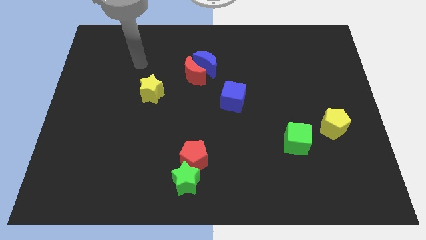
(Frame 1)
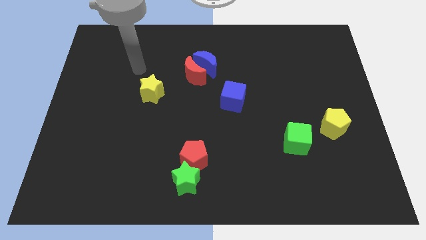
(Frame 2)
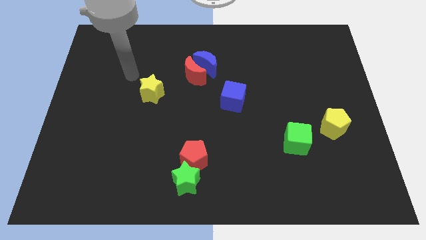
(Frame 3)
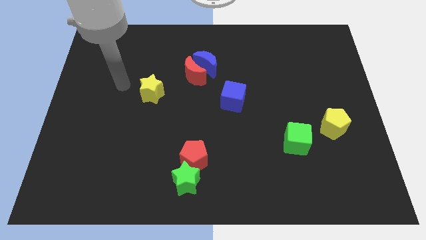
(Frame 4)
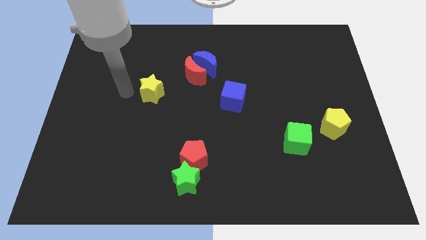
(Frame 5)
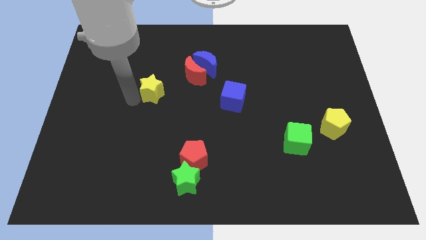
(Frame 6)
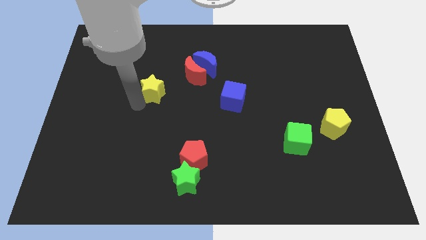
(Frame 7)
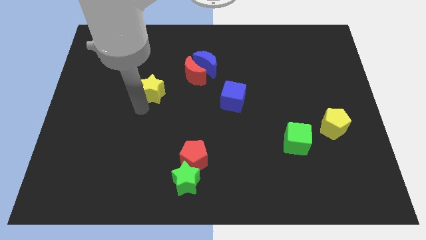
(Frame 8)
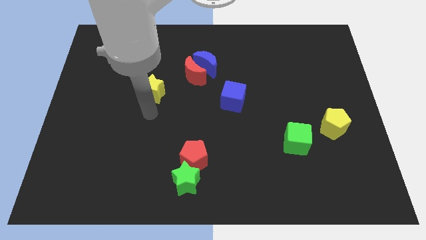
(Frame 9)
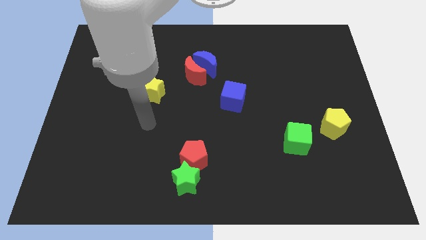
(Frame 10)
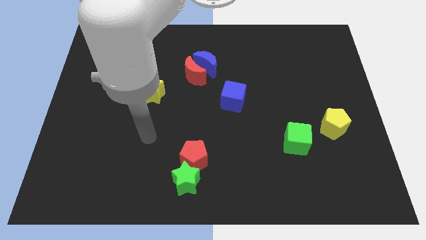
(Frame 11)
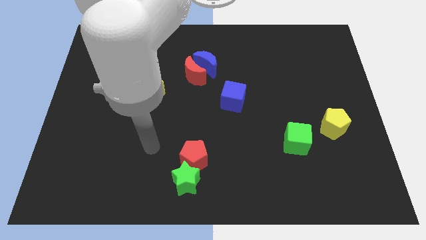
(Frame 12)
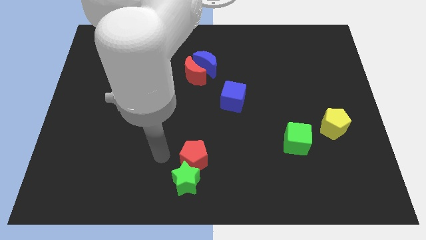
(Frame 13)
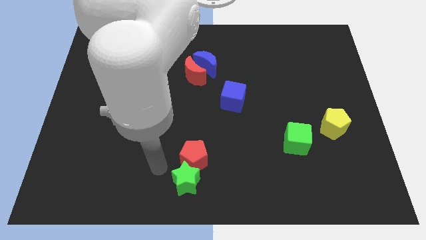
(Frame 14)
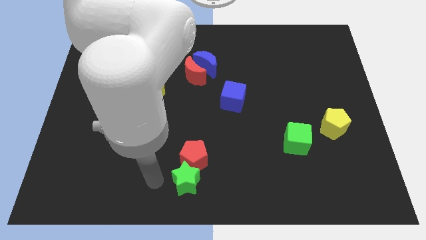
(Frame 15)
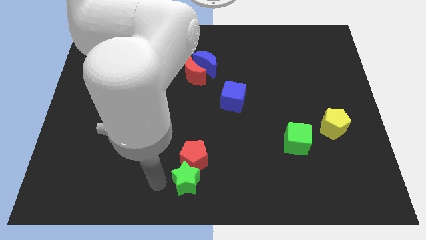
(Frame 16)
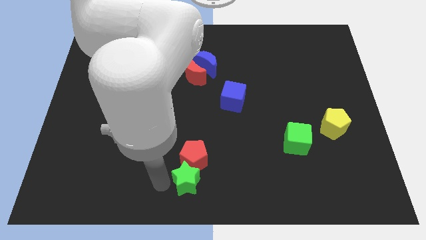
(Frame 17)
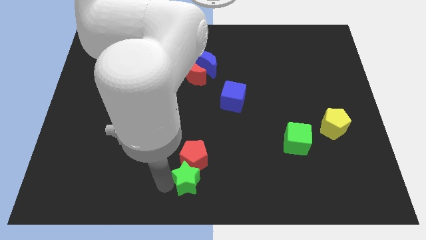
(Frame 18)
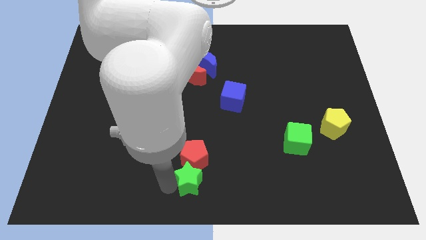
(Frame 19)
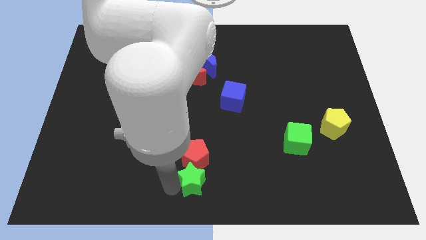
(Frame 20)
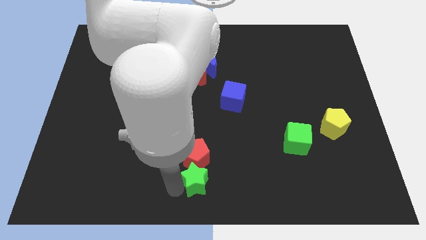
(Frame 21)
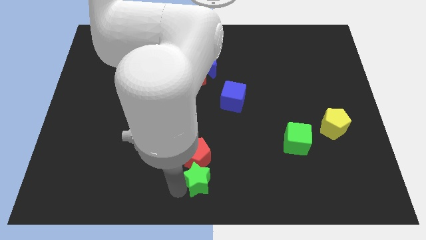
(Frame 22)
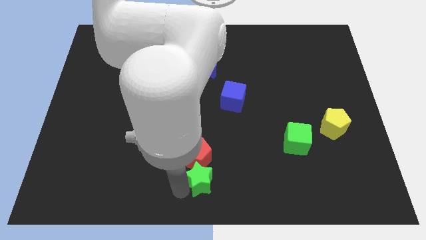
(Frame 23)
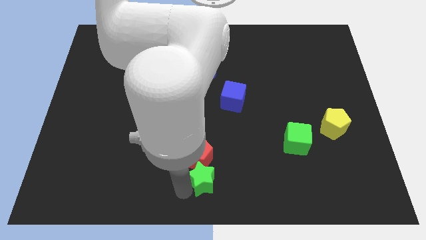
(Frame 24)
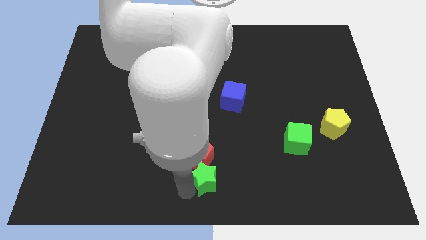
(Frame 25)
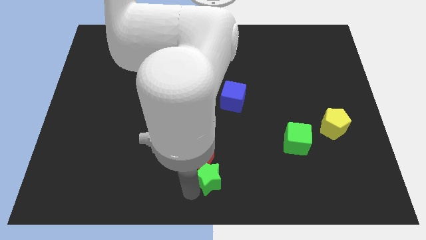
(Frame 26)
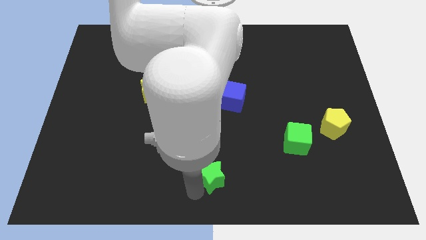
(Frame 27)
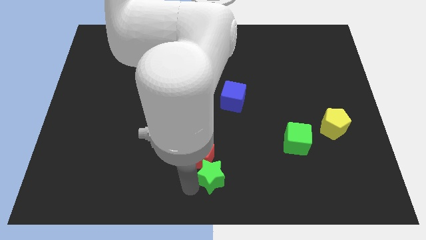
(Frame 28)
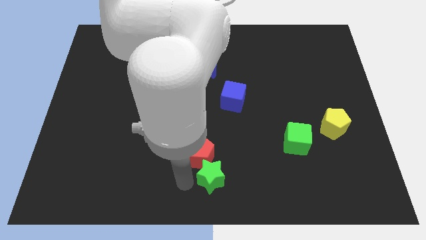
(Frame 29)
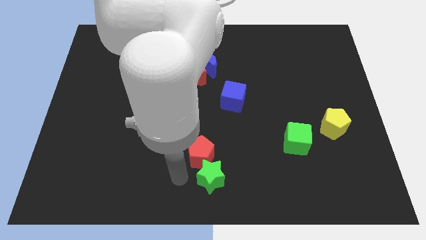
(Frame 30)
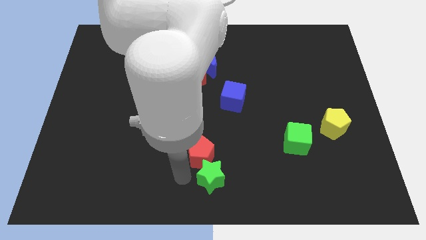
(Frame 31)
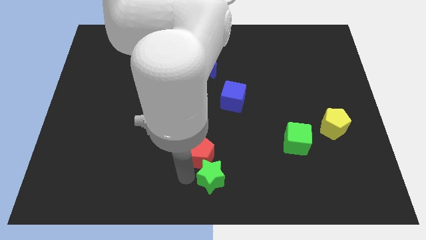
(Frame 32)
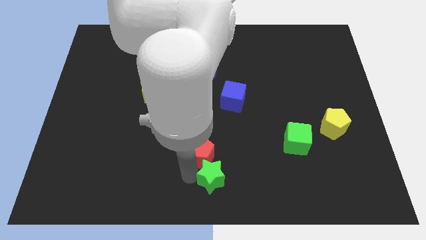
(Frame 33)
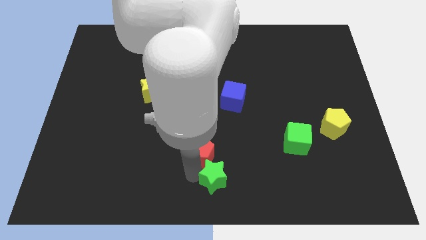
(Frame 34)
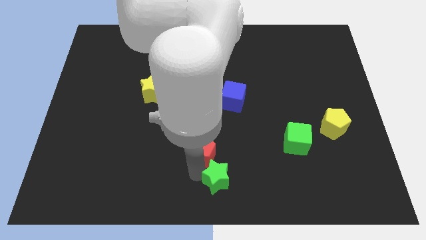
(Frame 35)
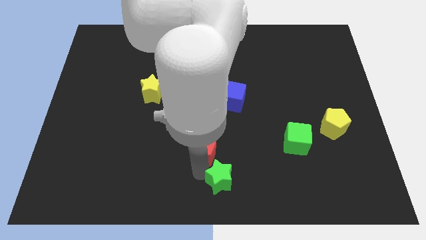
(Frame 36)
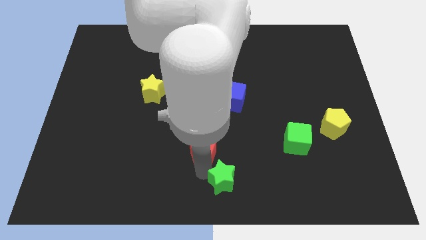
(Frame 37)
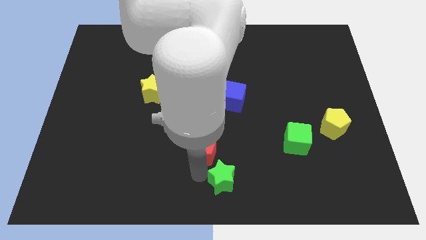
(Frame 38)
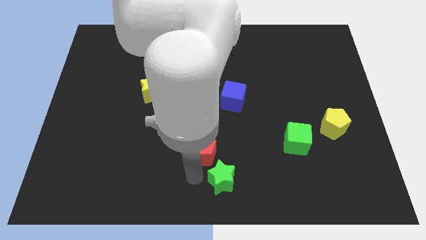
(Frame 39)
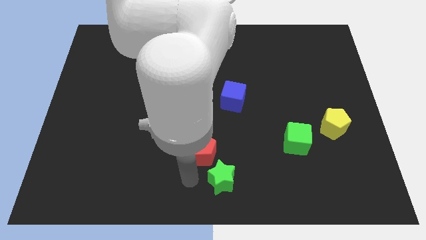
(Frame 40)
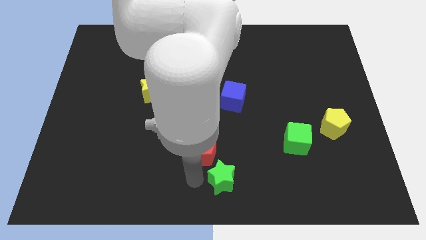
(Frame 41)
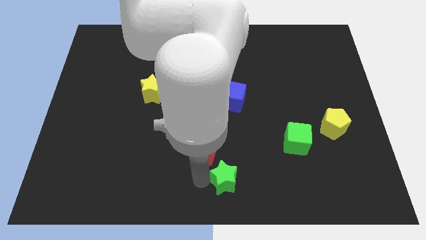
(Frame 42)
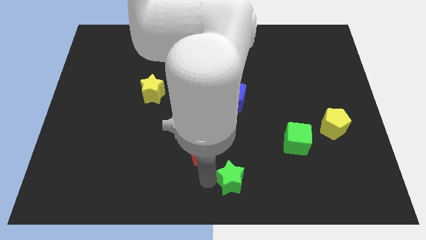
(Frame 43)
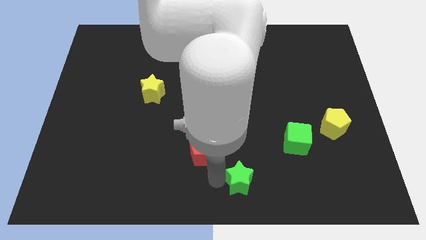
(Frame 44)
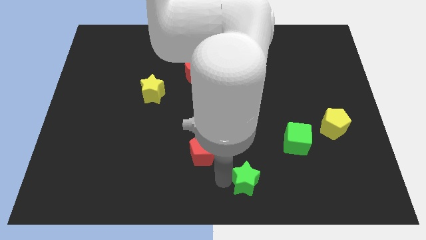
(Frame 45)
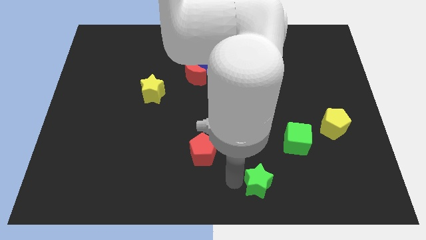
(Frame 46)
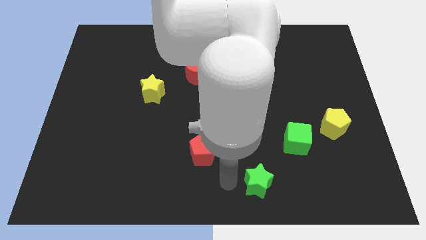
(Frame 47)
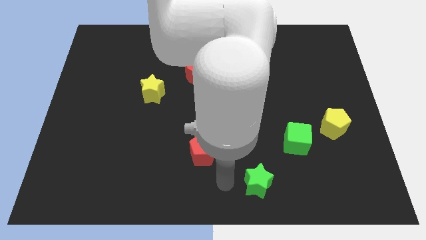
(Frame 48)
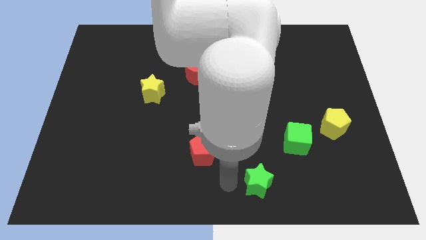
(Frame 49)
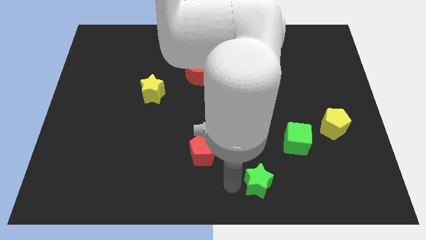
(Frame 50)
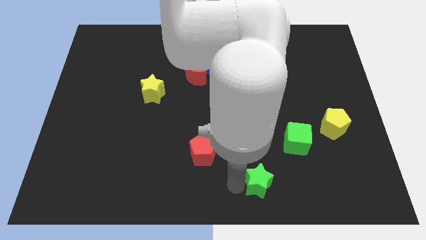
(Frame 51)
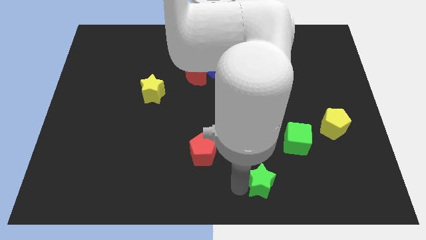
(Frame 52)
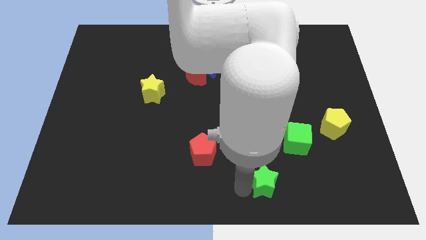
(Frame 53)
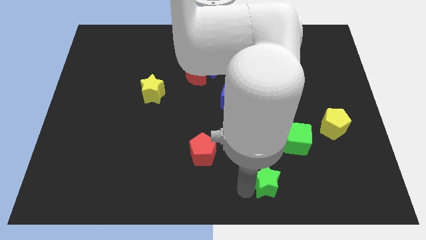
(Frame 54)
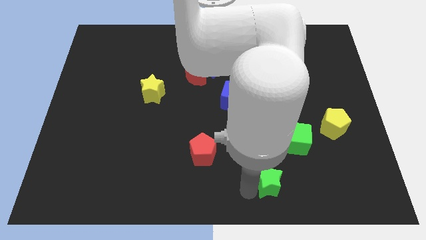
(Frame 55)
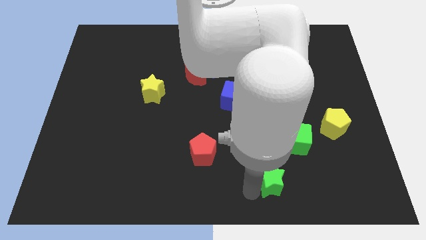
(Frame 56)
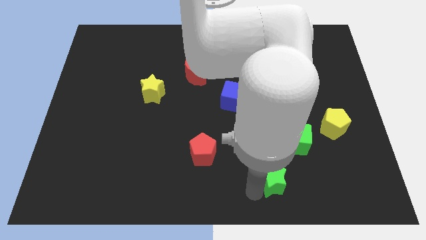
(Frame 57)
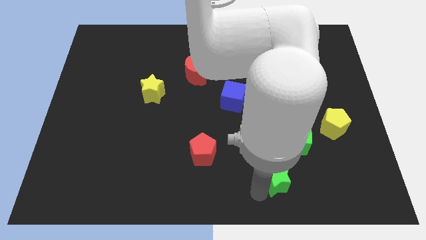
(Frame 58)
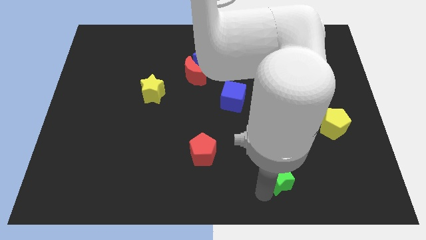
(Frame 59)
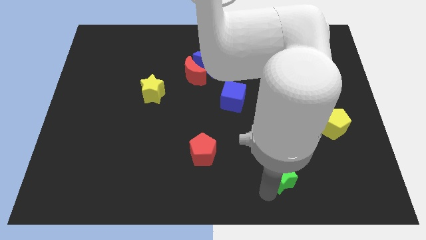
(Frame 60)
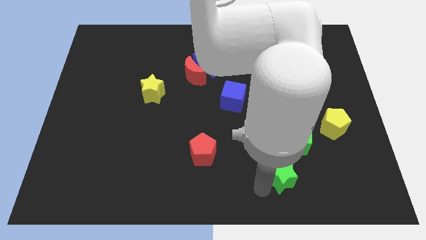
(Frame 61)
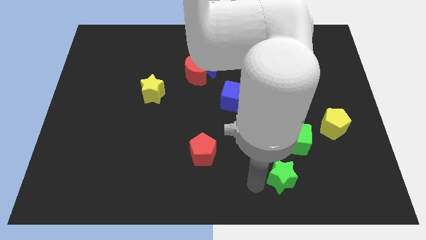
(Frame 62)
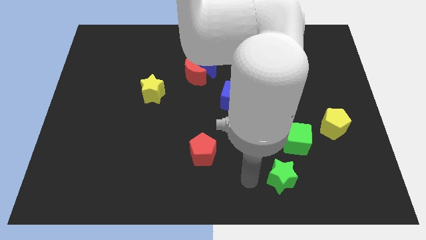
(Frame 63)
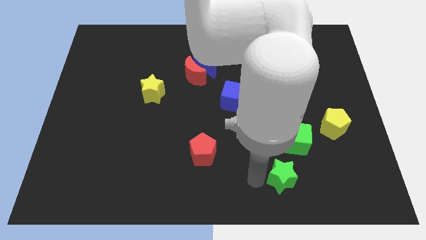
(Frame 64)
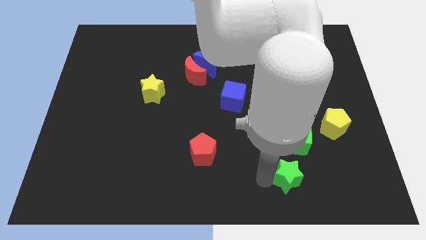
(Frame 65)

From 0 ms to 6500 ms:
move the green star to the right

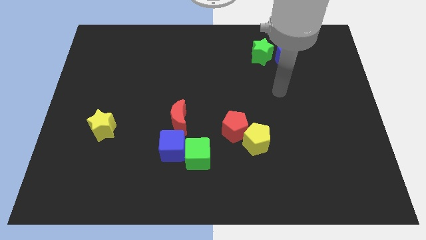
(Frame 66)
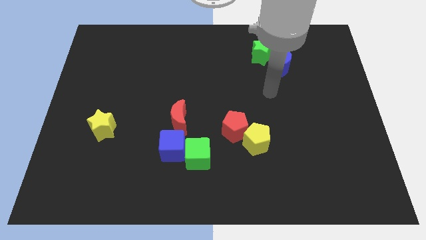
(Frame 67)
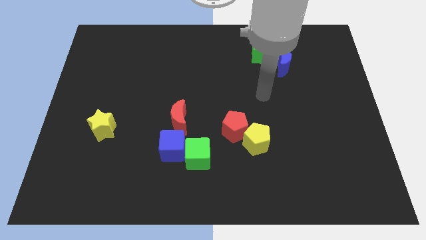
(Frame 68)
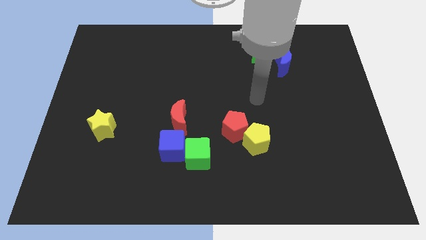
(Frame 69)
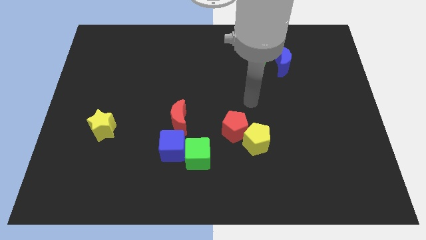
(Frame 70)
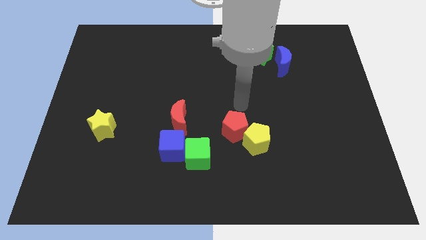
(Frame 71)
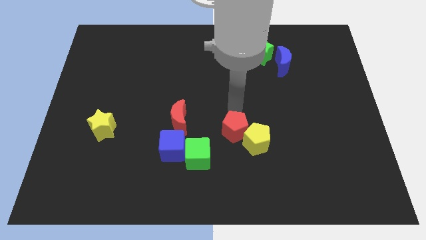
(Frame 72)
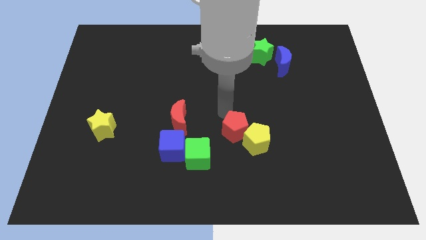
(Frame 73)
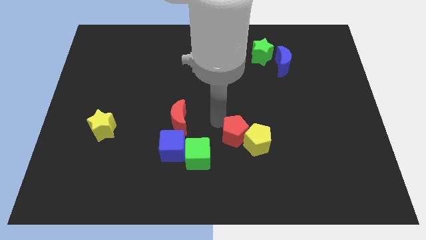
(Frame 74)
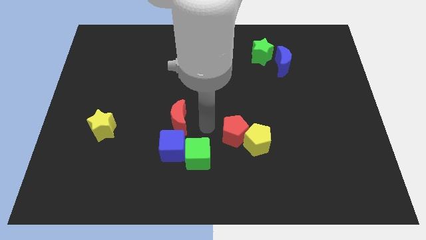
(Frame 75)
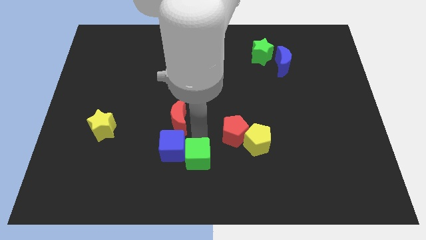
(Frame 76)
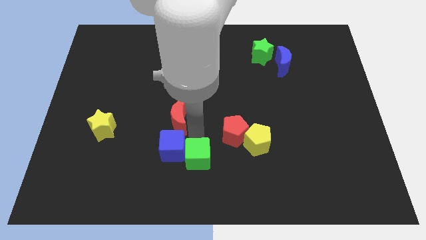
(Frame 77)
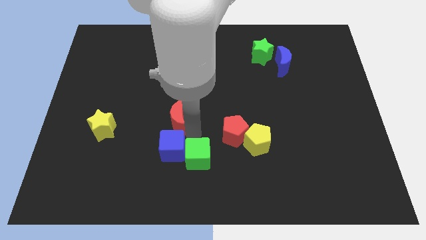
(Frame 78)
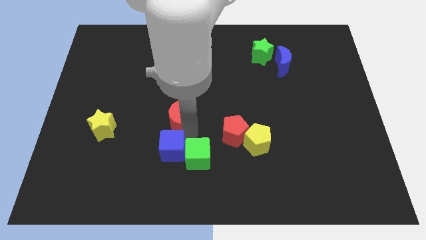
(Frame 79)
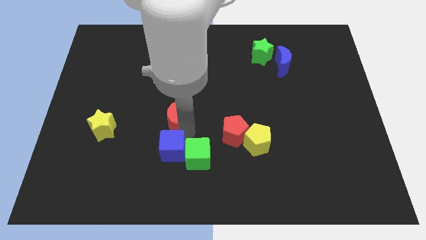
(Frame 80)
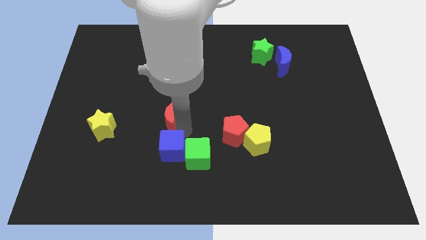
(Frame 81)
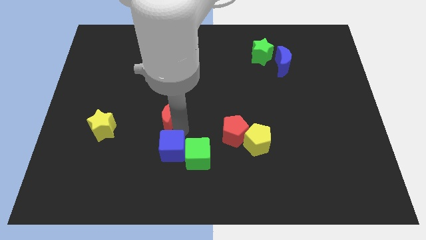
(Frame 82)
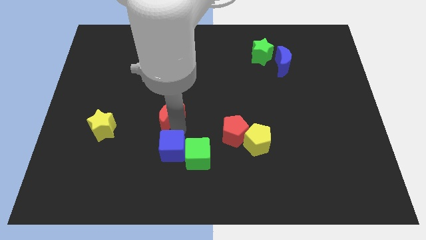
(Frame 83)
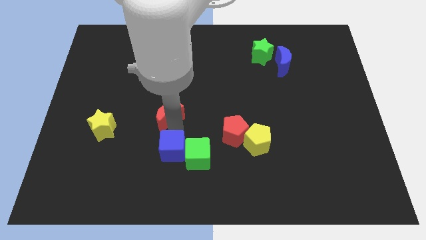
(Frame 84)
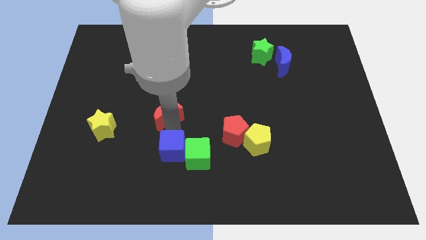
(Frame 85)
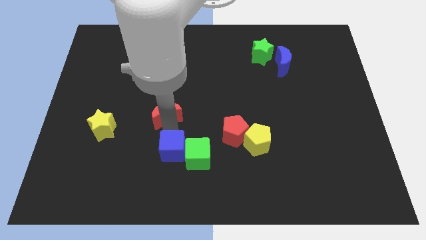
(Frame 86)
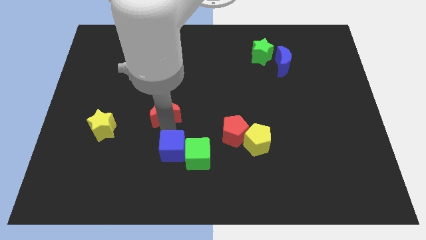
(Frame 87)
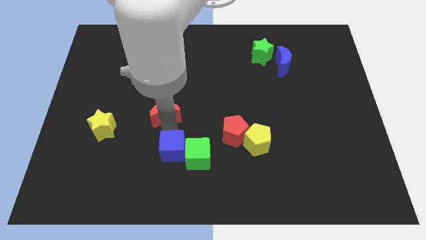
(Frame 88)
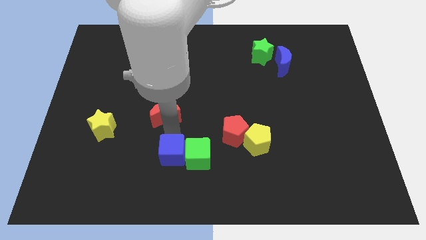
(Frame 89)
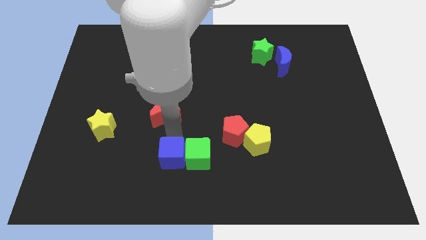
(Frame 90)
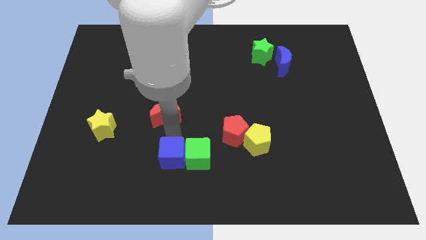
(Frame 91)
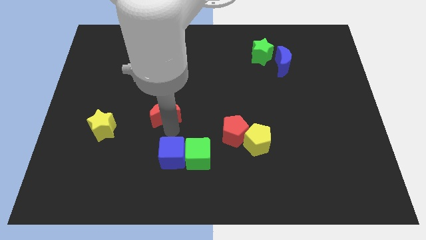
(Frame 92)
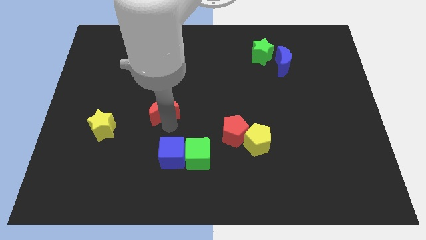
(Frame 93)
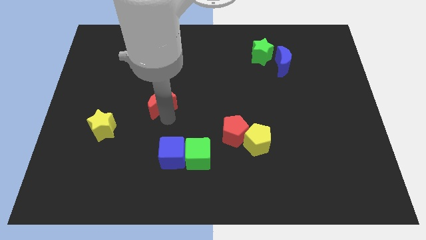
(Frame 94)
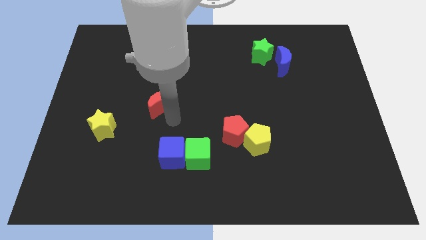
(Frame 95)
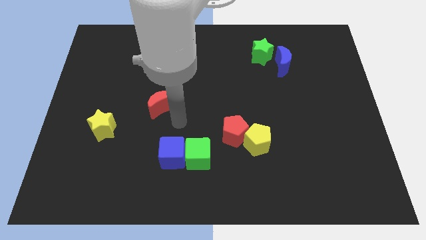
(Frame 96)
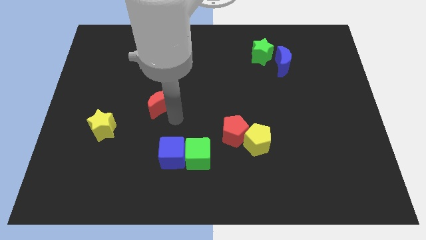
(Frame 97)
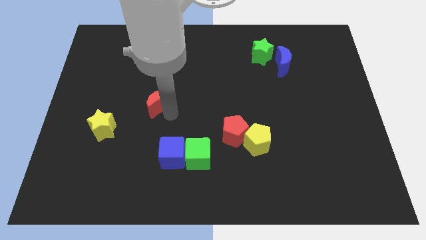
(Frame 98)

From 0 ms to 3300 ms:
slide the red moon up and then to the left a little
